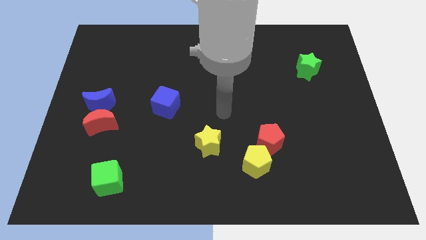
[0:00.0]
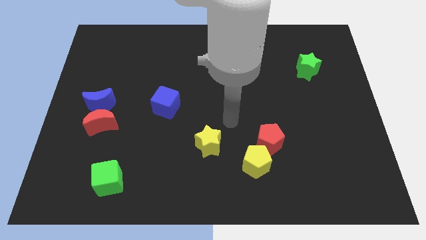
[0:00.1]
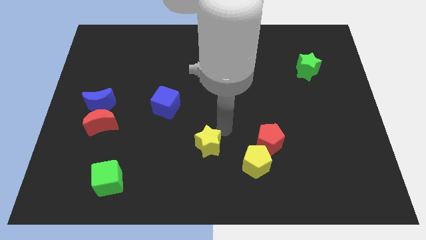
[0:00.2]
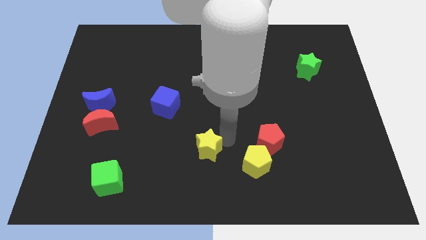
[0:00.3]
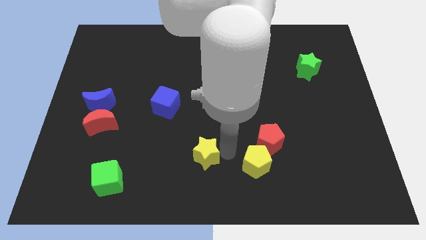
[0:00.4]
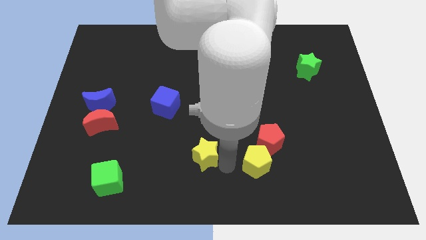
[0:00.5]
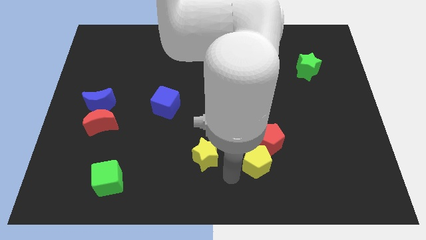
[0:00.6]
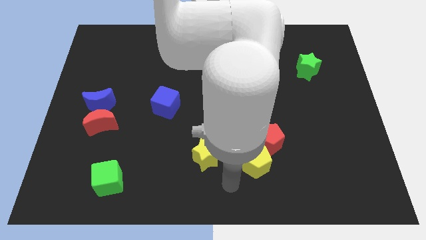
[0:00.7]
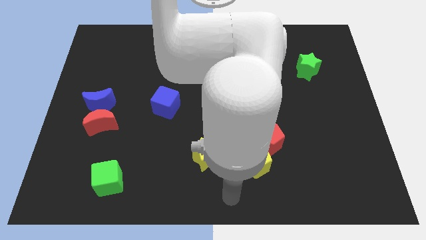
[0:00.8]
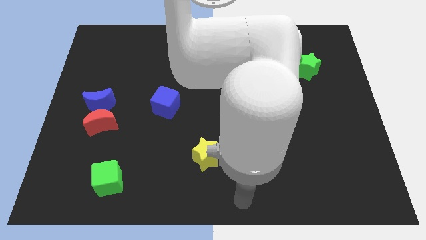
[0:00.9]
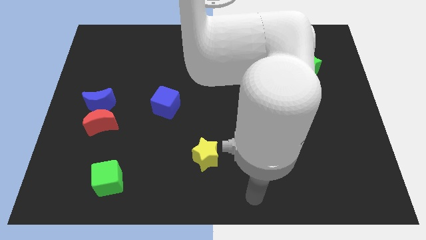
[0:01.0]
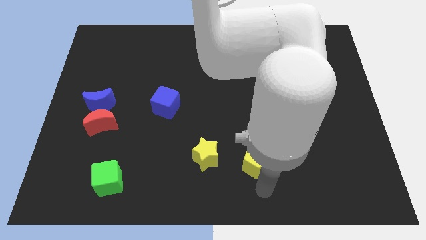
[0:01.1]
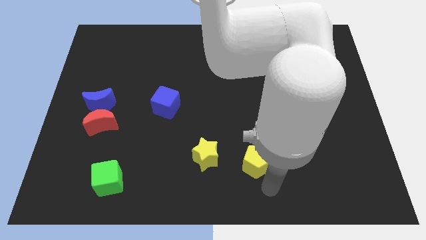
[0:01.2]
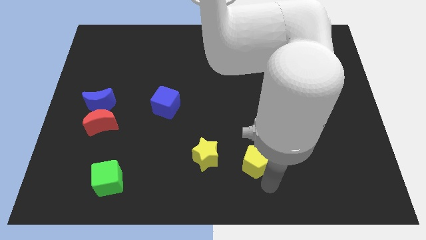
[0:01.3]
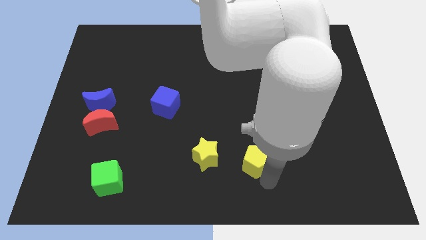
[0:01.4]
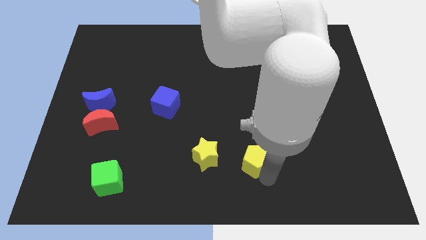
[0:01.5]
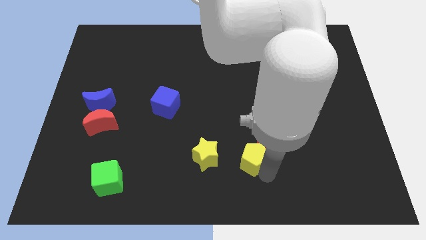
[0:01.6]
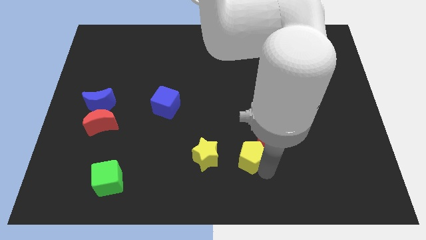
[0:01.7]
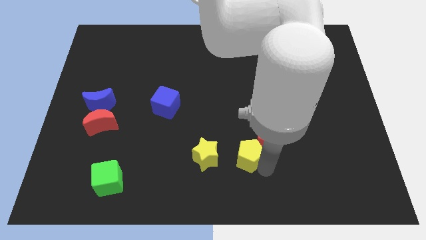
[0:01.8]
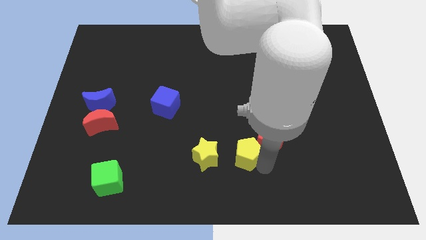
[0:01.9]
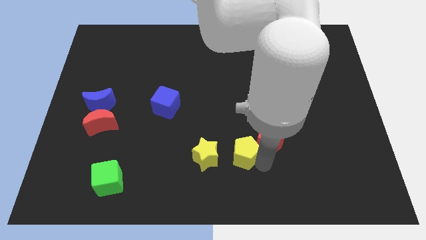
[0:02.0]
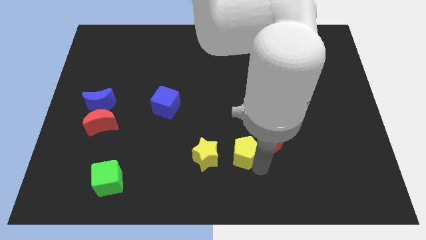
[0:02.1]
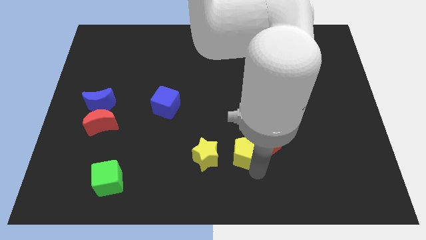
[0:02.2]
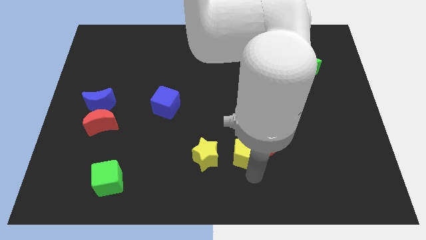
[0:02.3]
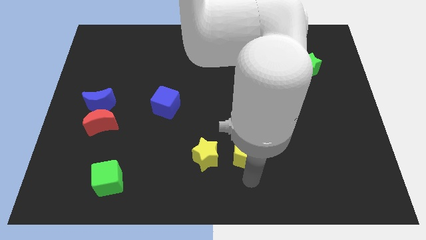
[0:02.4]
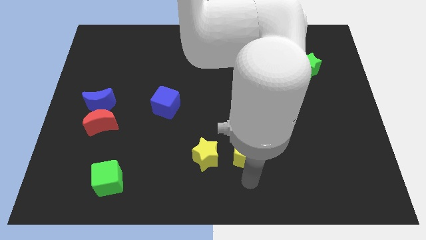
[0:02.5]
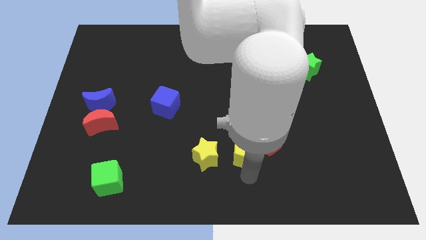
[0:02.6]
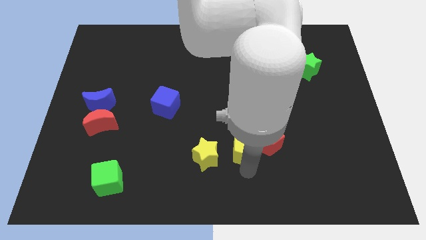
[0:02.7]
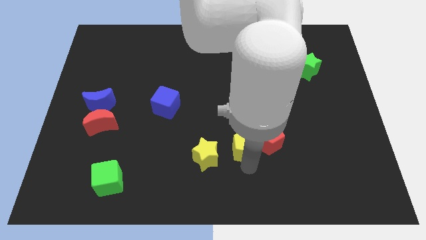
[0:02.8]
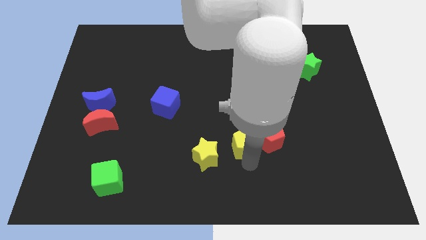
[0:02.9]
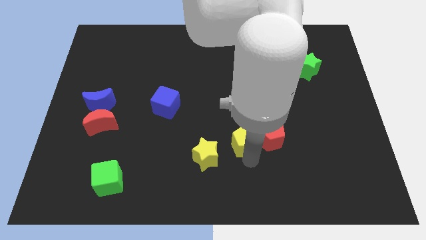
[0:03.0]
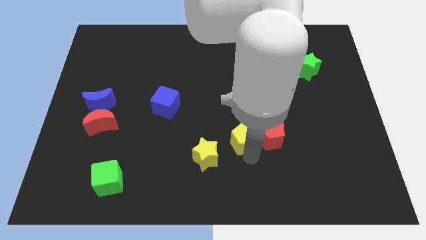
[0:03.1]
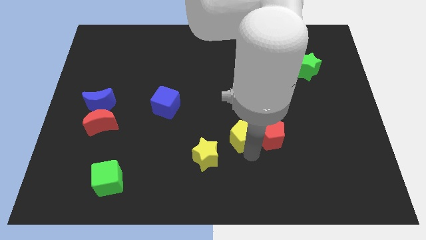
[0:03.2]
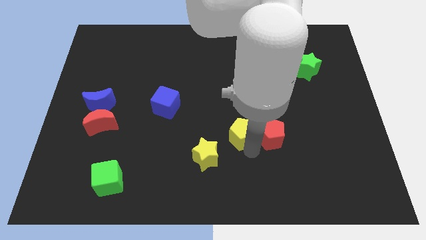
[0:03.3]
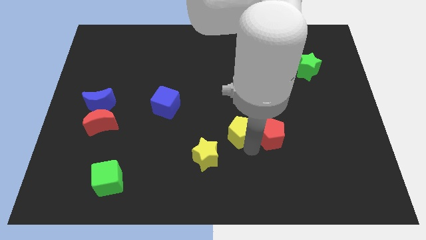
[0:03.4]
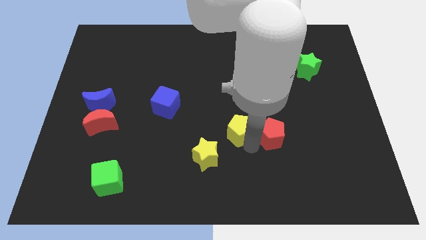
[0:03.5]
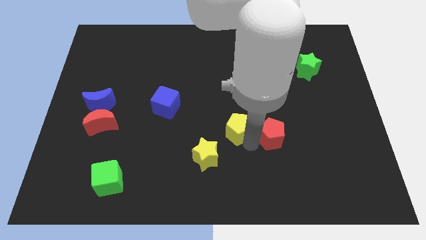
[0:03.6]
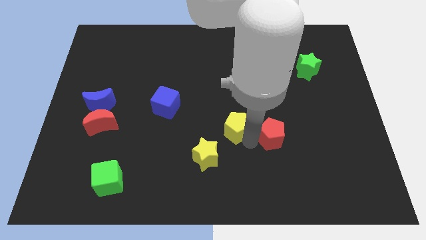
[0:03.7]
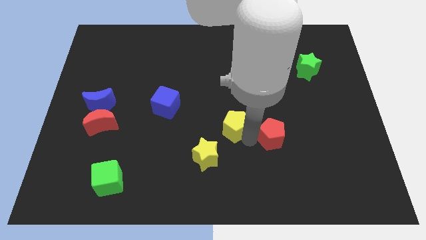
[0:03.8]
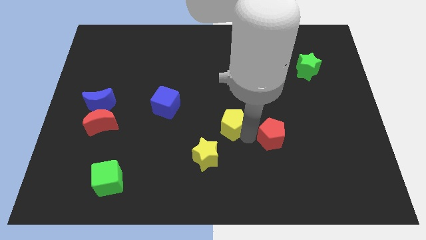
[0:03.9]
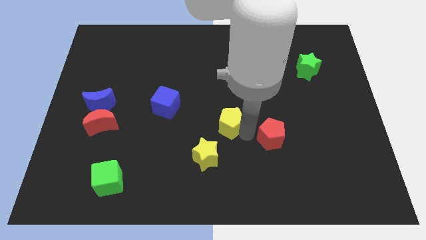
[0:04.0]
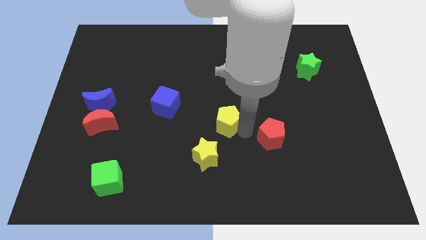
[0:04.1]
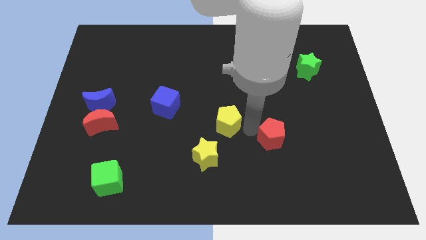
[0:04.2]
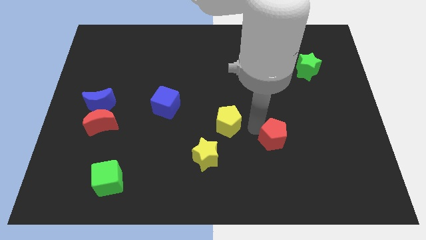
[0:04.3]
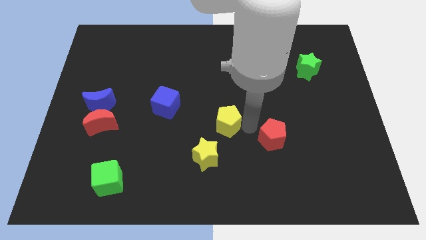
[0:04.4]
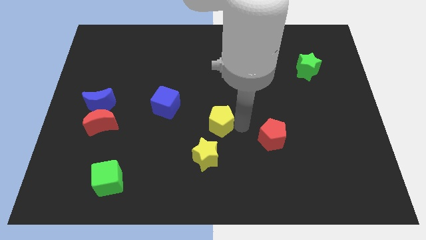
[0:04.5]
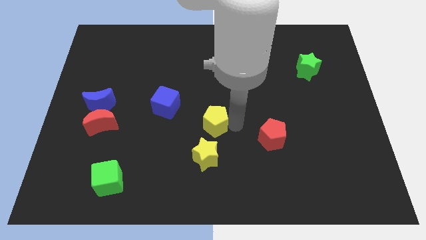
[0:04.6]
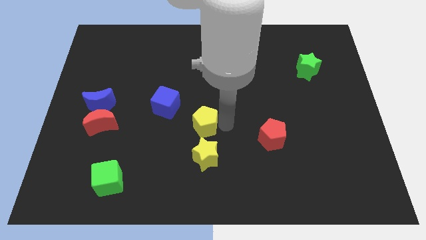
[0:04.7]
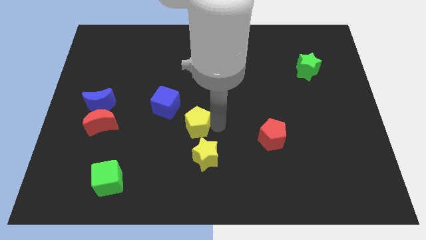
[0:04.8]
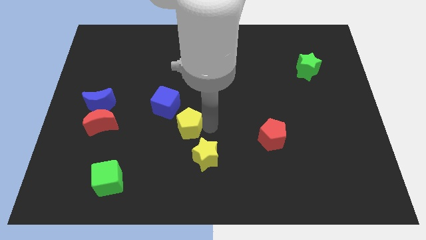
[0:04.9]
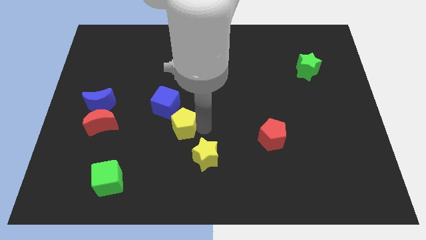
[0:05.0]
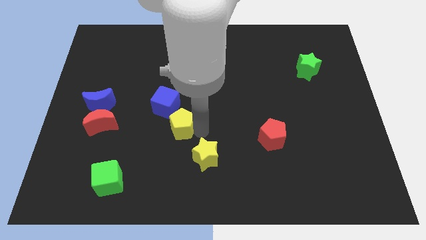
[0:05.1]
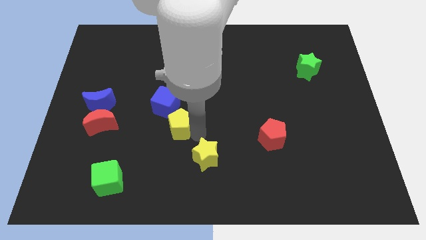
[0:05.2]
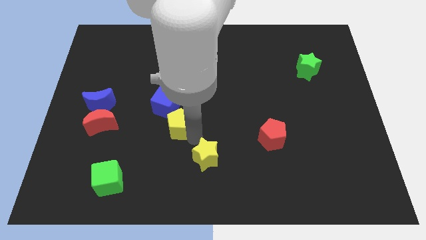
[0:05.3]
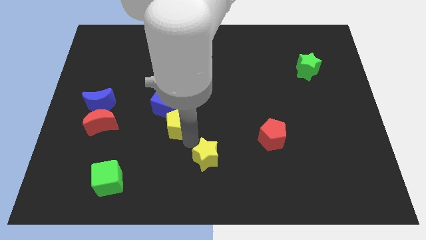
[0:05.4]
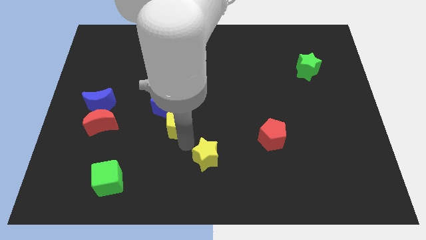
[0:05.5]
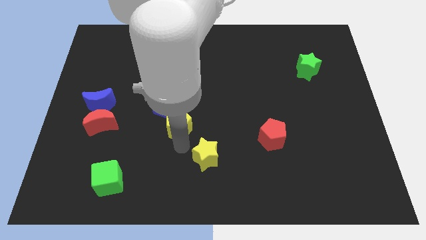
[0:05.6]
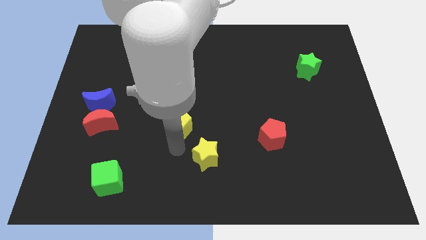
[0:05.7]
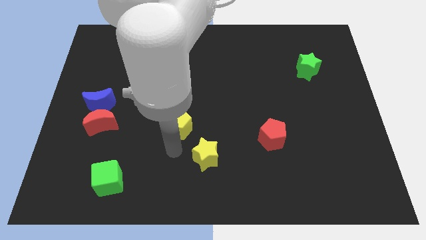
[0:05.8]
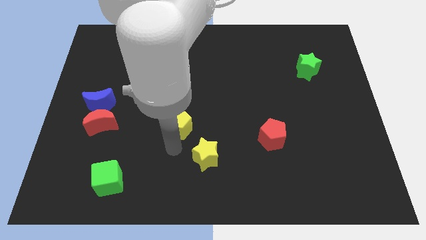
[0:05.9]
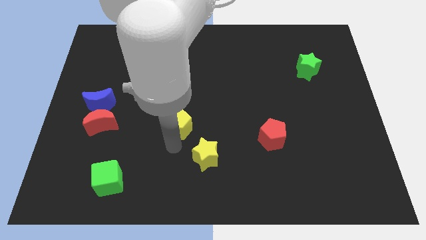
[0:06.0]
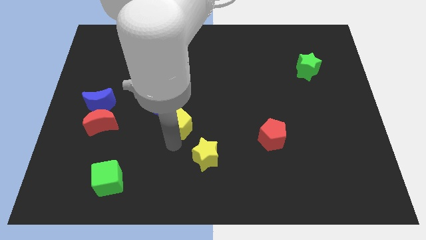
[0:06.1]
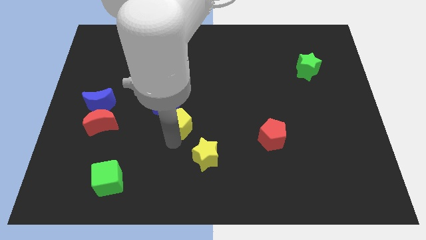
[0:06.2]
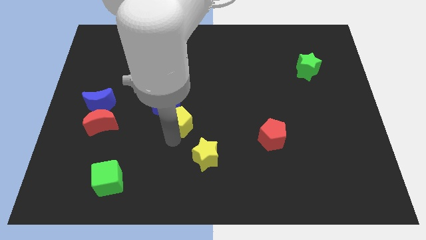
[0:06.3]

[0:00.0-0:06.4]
put the yellow pentagon next to the blue cube

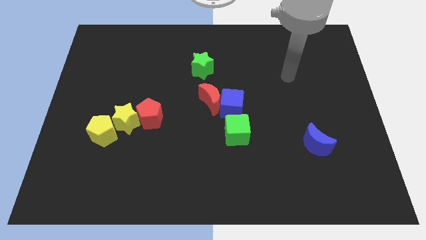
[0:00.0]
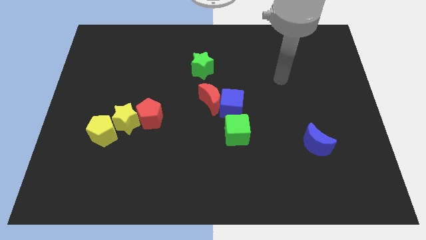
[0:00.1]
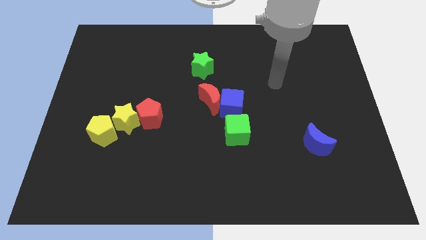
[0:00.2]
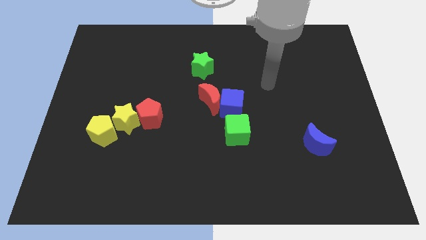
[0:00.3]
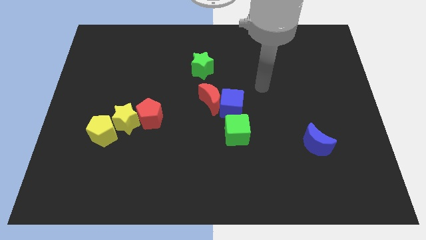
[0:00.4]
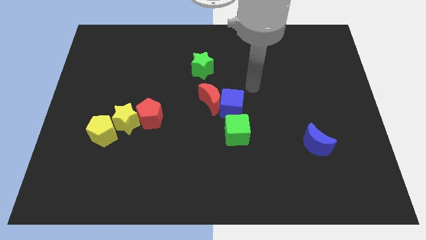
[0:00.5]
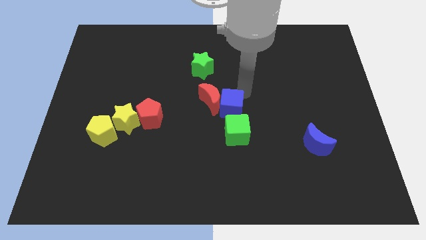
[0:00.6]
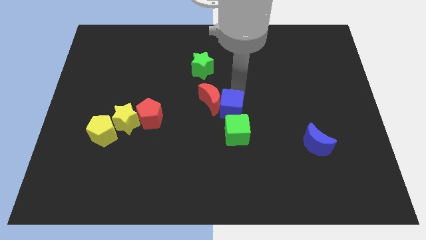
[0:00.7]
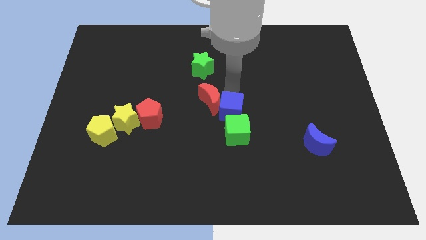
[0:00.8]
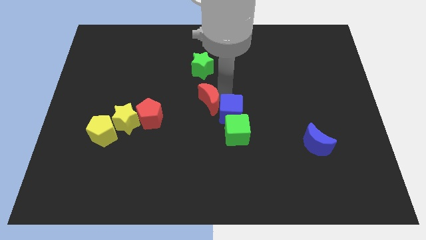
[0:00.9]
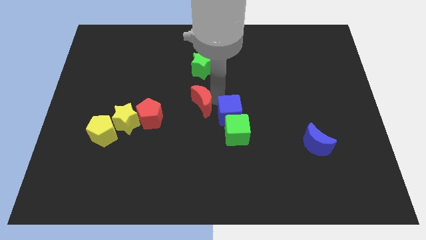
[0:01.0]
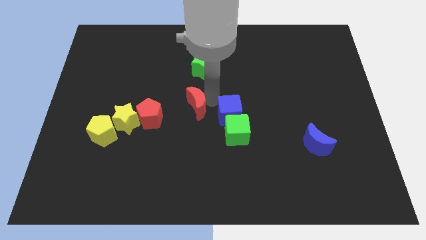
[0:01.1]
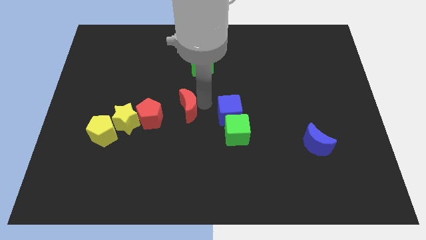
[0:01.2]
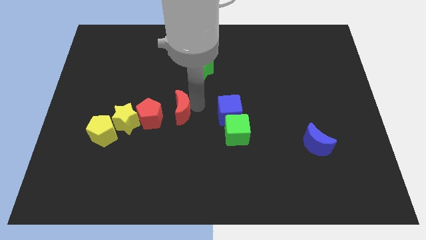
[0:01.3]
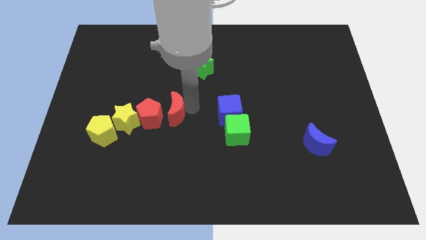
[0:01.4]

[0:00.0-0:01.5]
push the red moon towards the red pentagon
